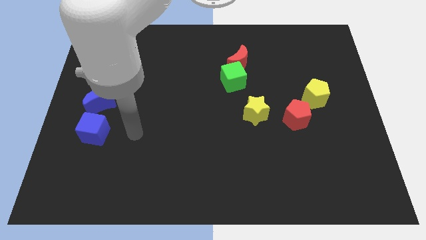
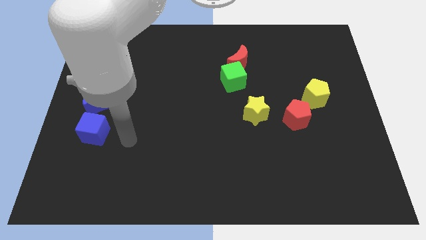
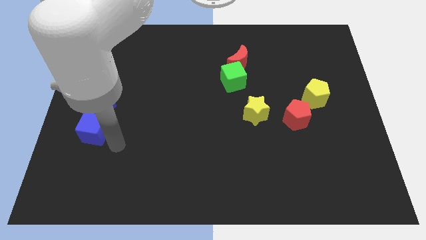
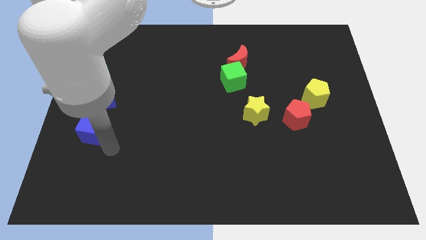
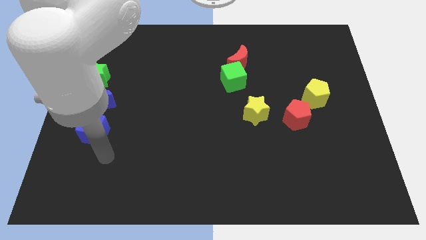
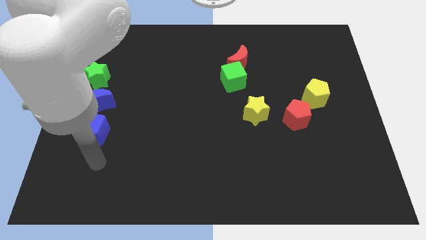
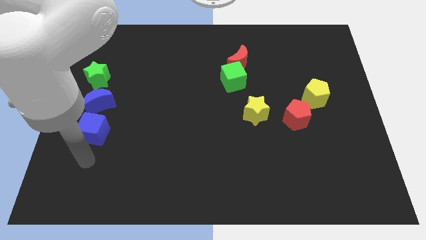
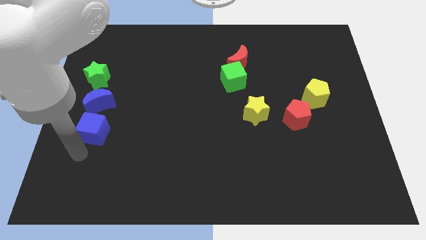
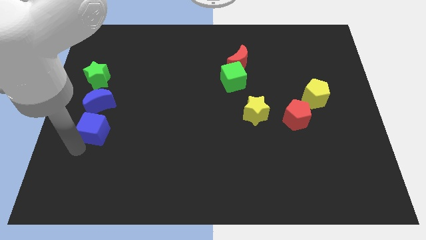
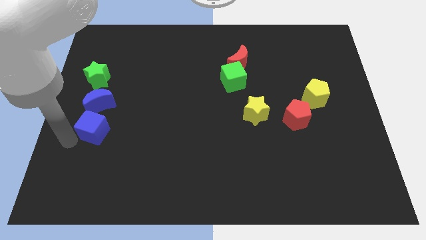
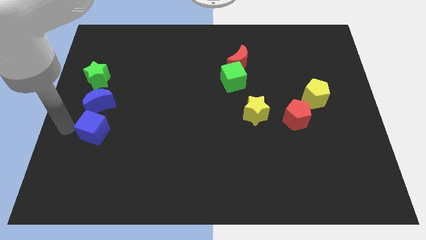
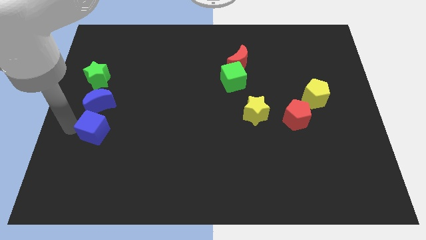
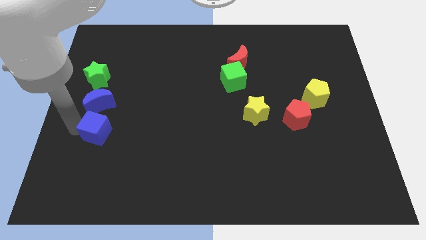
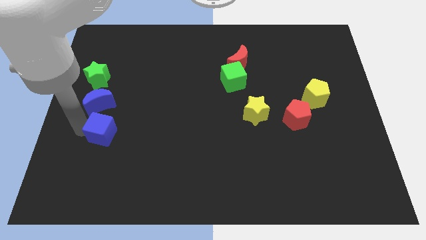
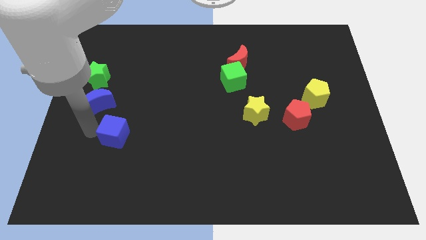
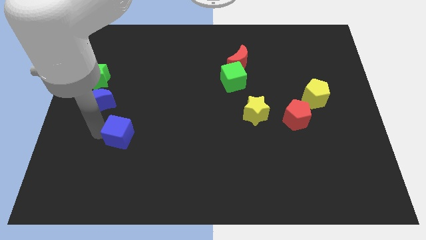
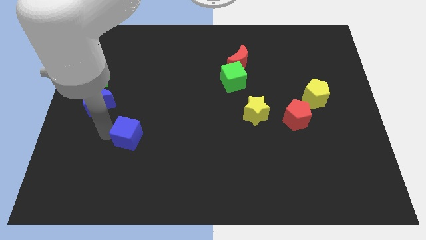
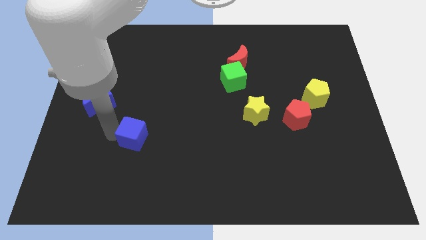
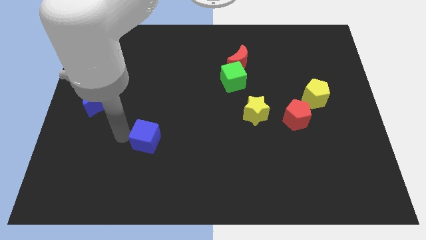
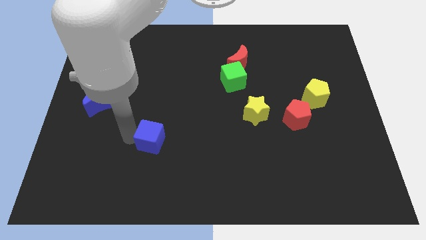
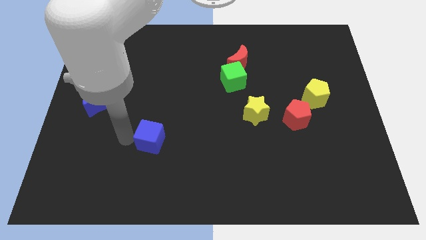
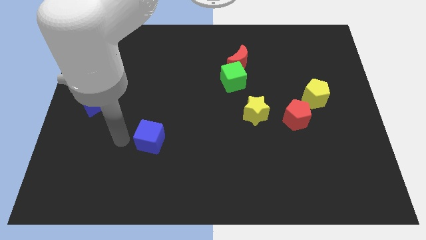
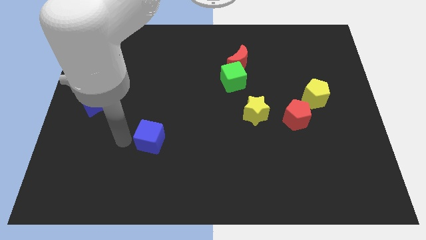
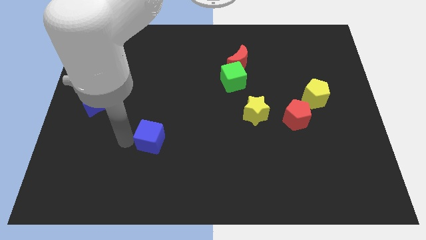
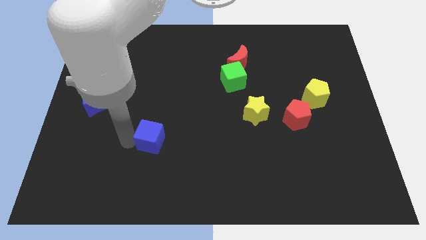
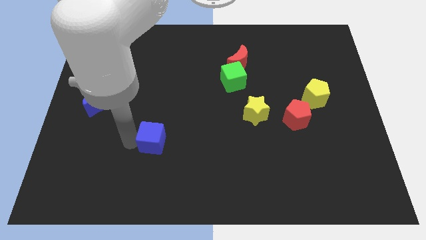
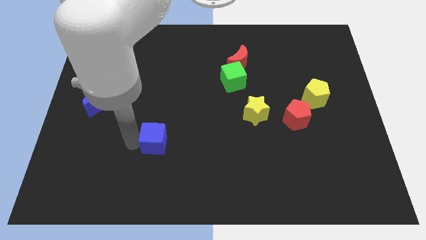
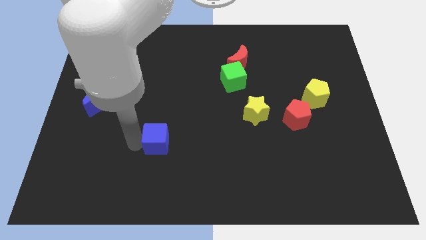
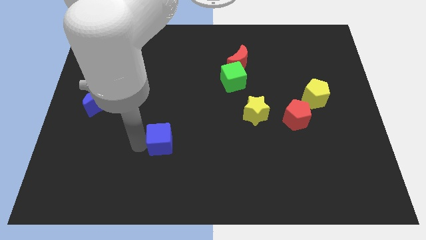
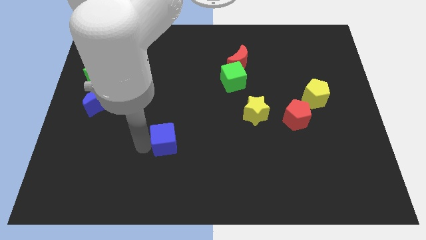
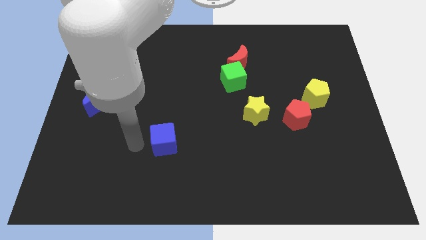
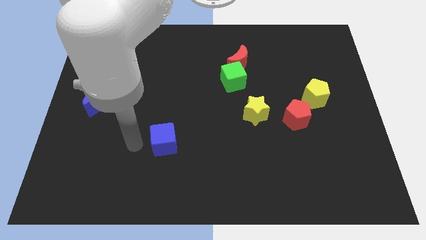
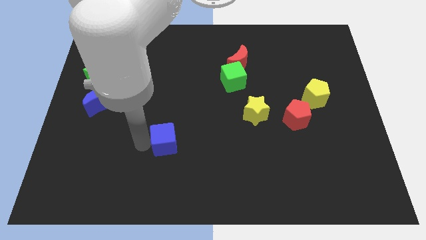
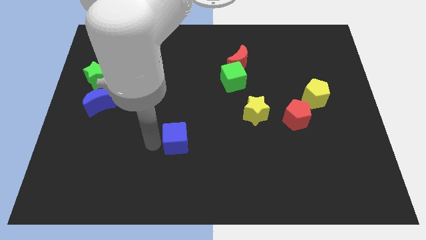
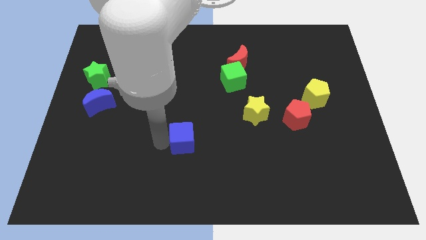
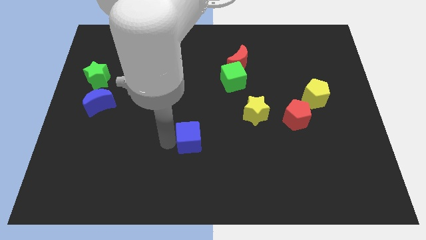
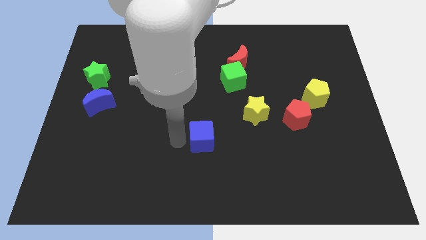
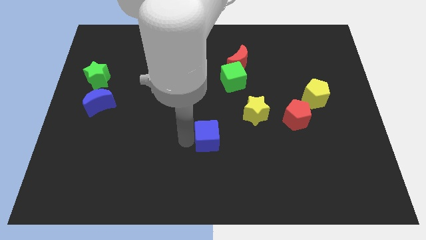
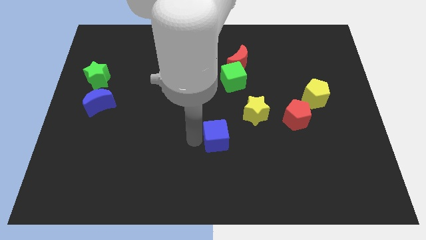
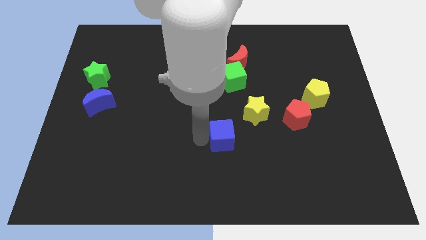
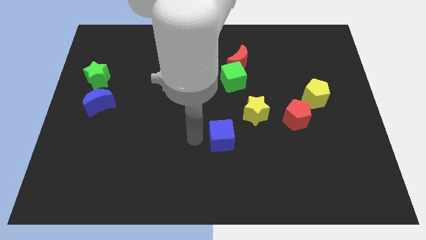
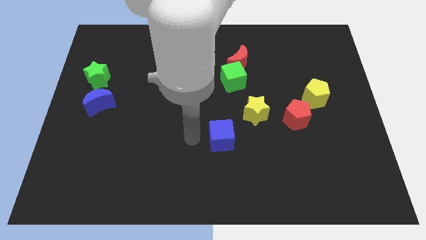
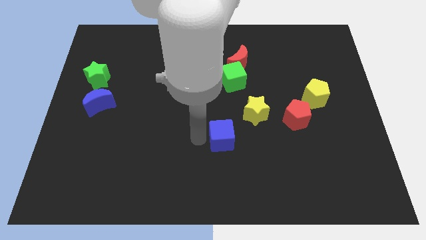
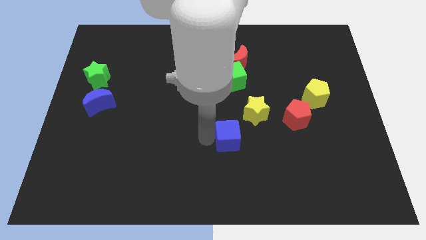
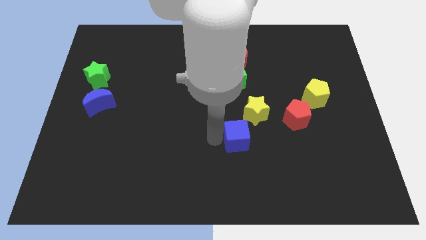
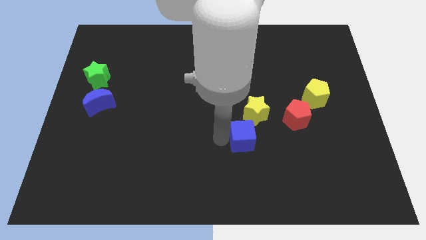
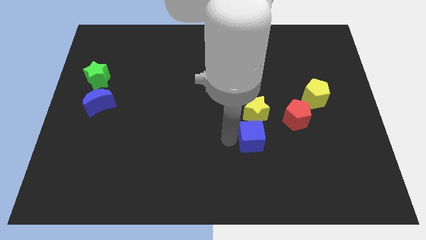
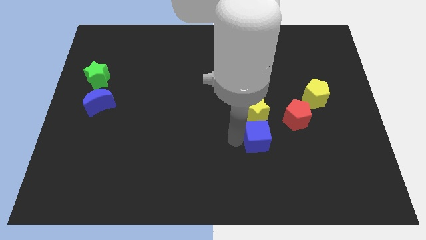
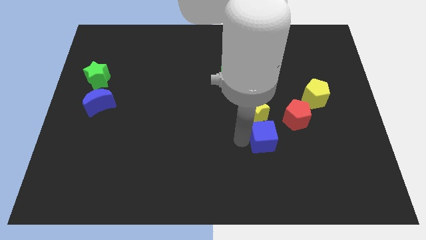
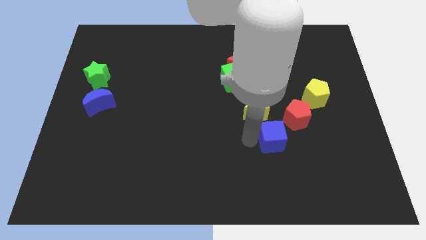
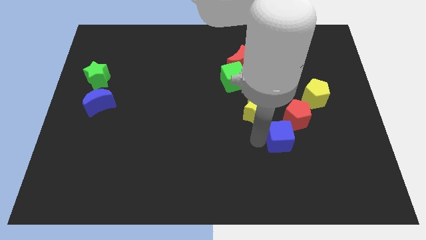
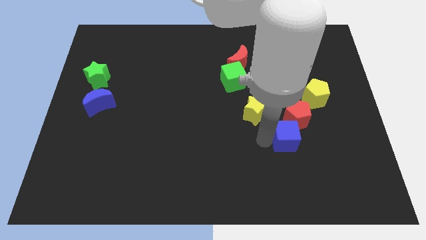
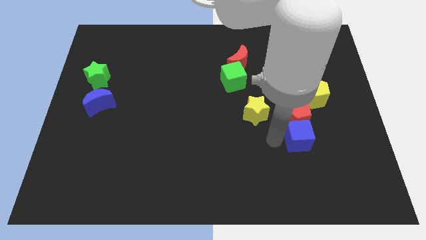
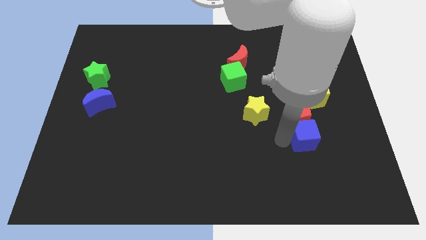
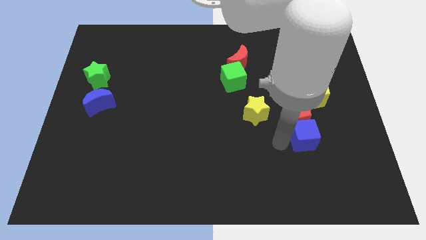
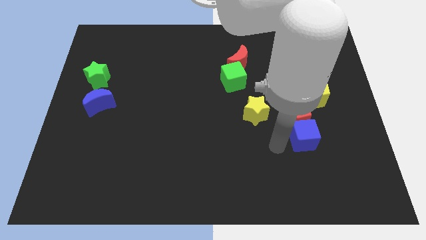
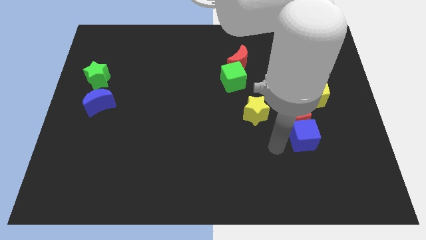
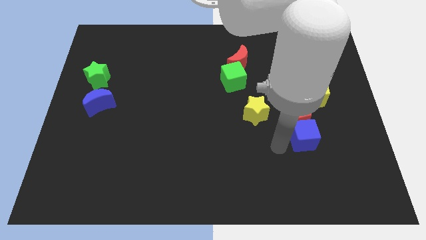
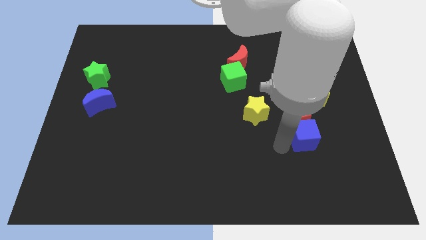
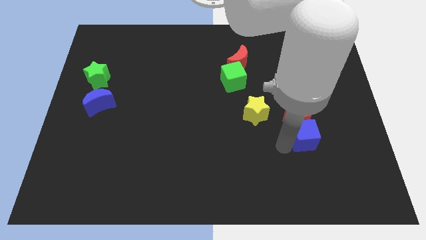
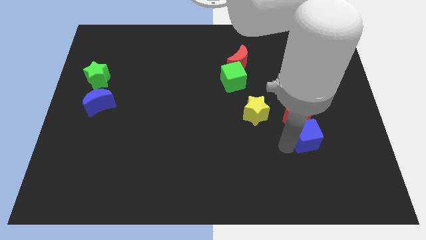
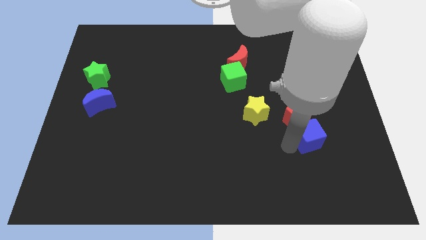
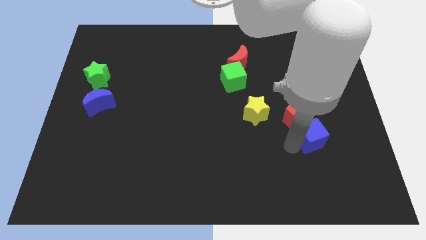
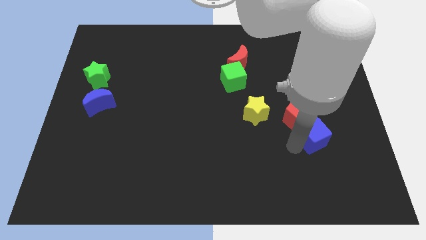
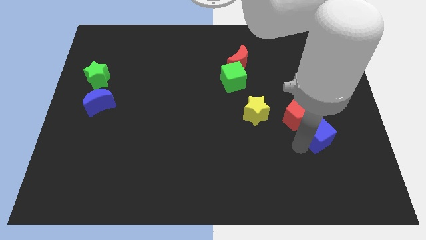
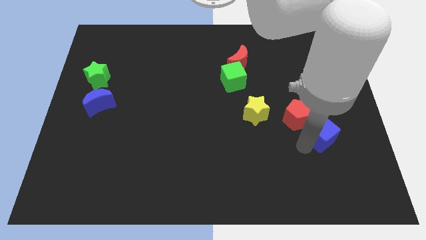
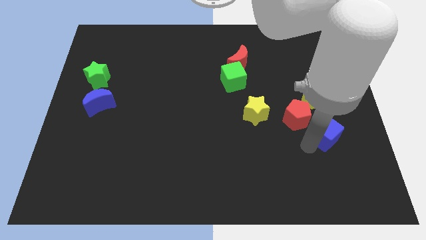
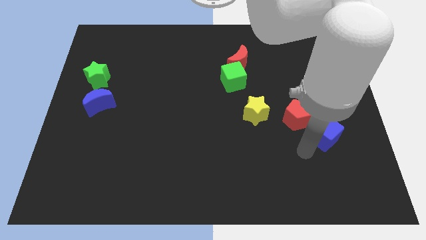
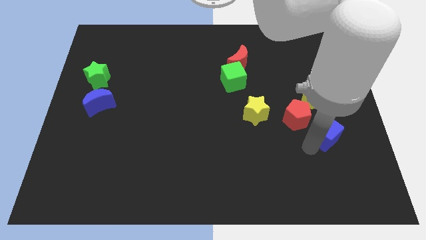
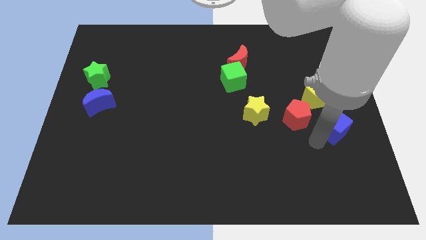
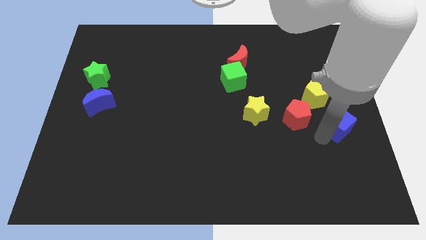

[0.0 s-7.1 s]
slide the blue cube to the right side

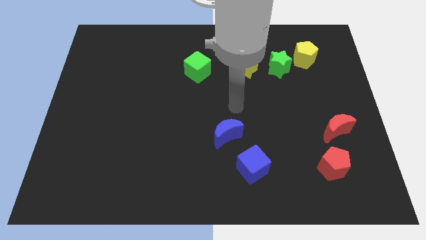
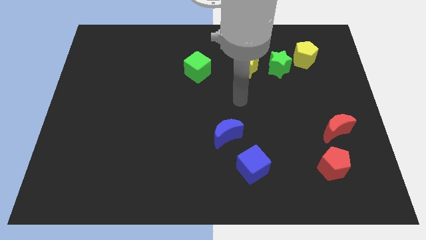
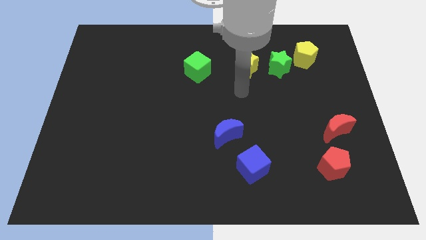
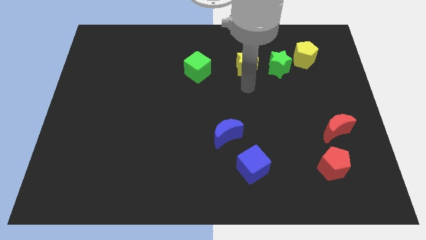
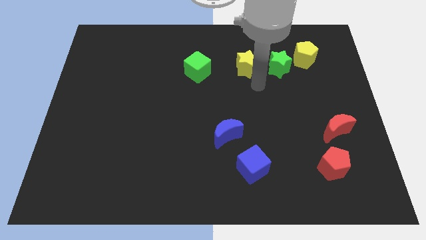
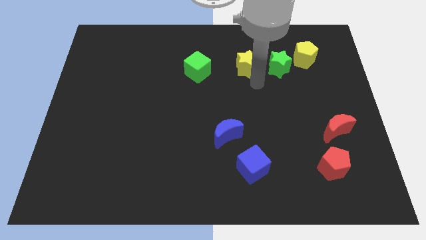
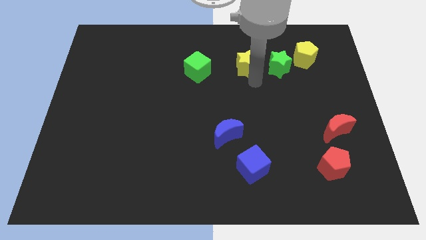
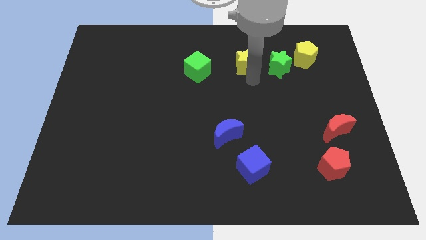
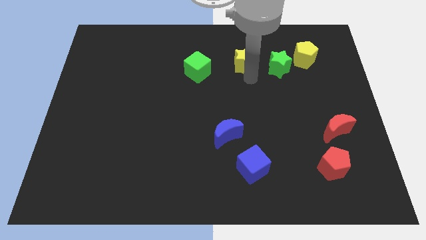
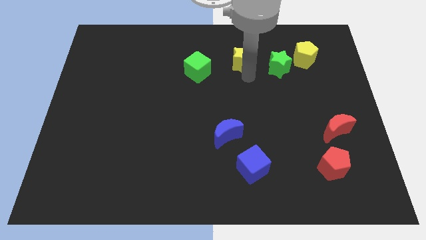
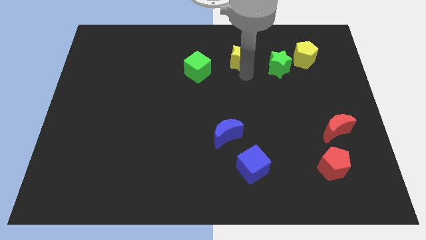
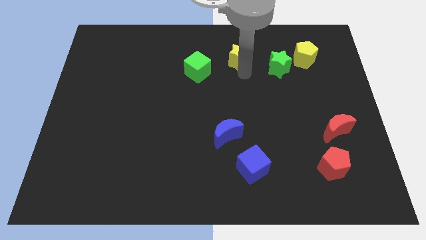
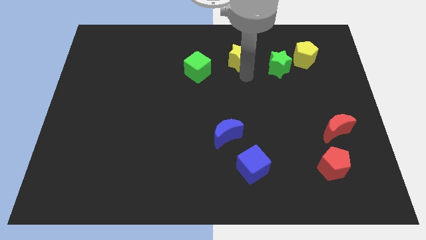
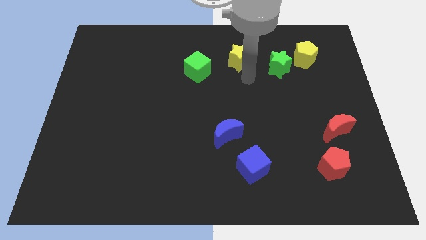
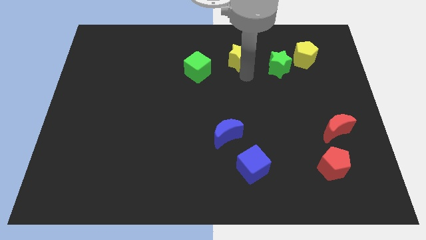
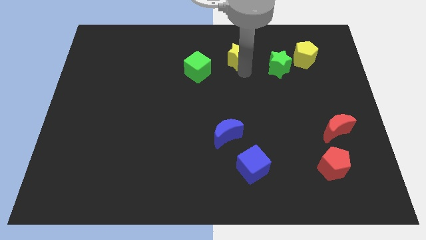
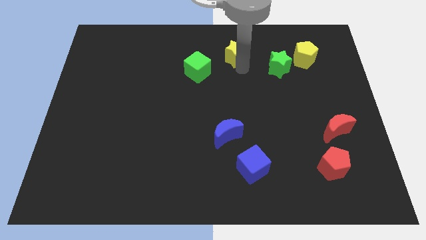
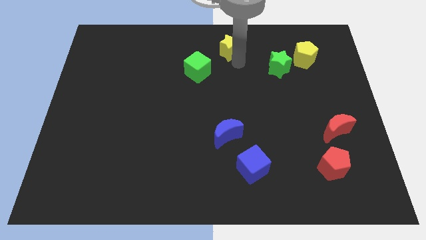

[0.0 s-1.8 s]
push the yellow star to the towards your base
